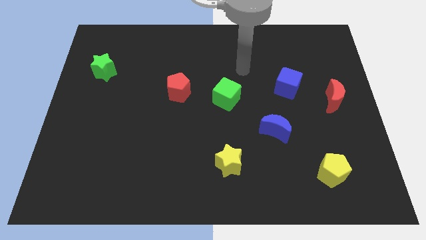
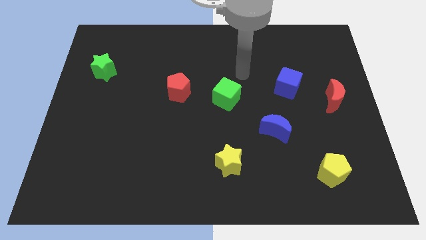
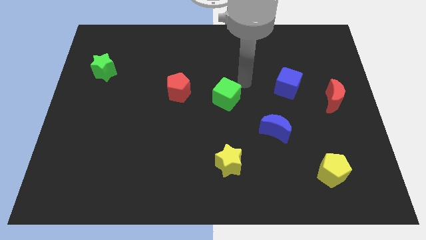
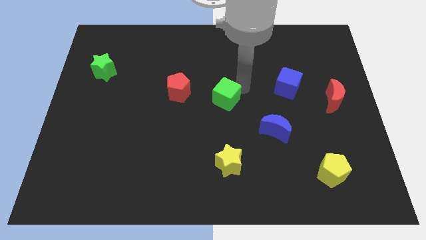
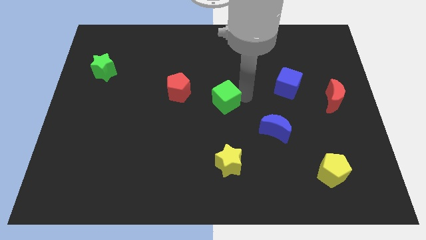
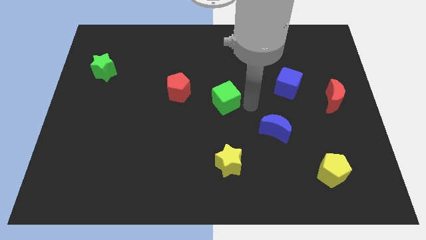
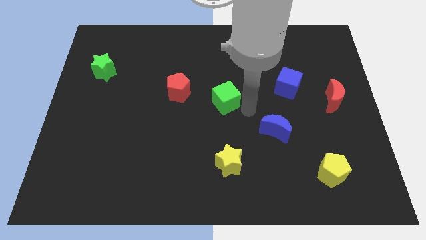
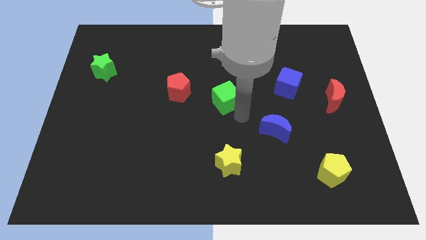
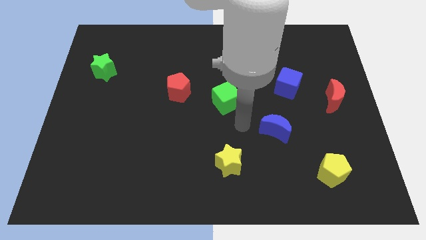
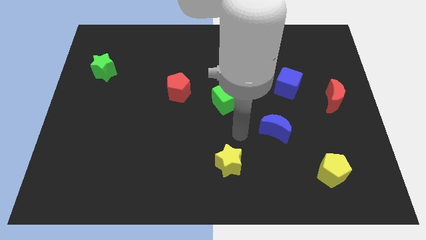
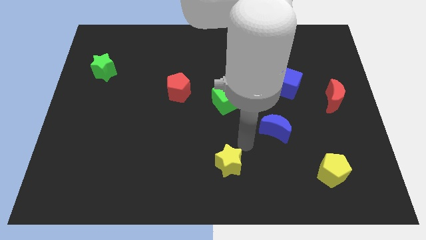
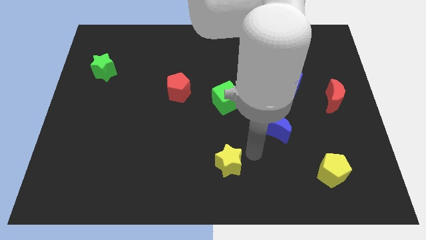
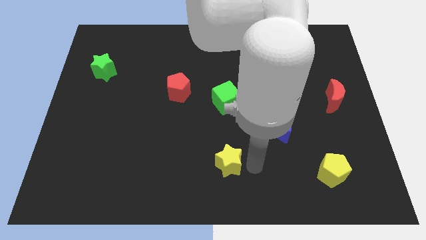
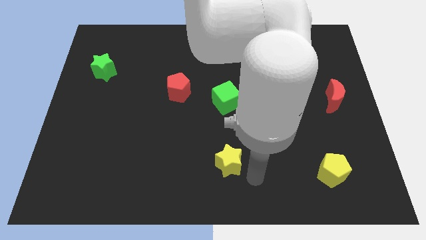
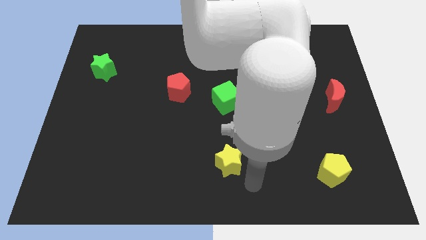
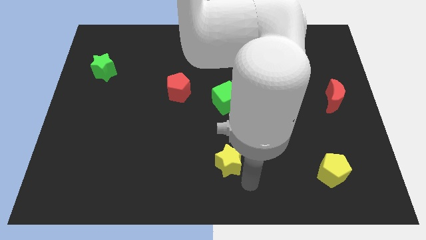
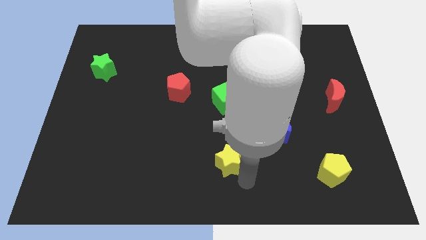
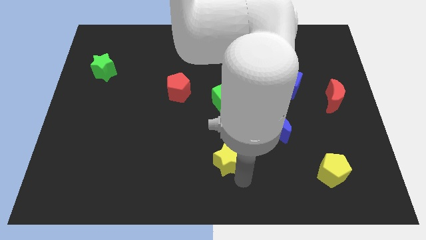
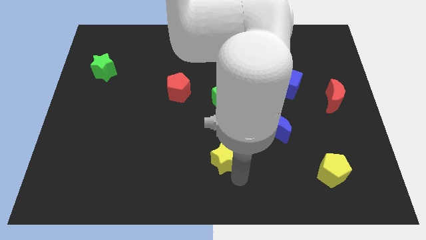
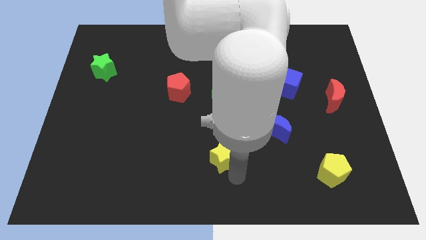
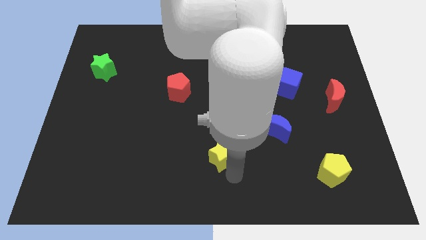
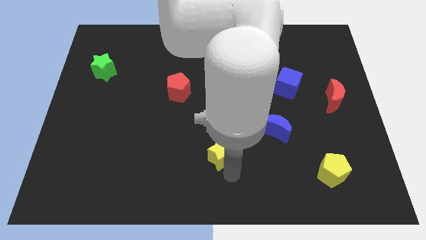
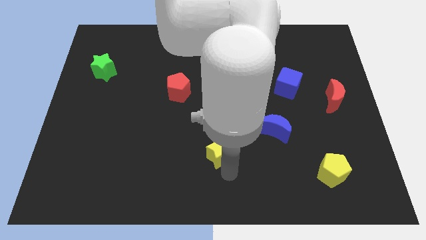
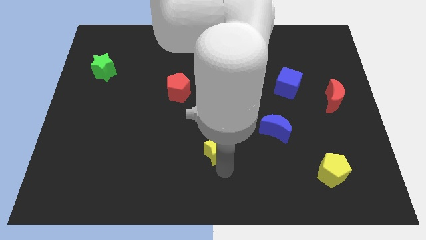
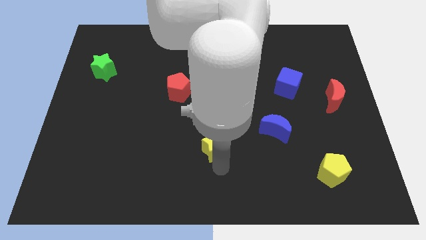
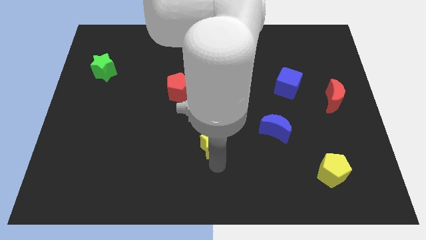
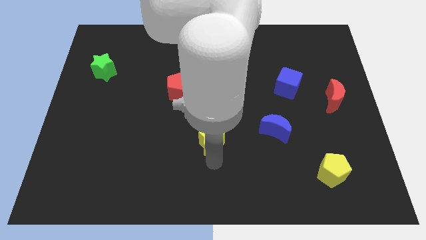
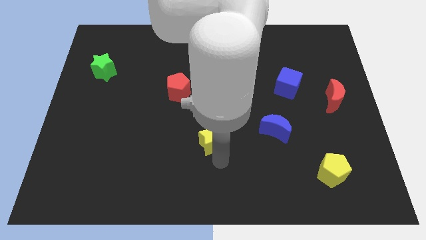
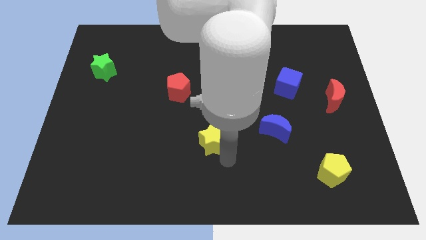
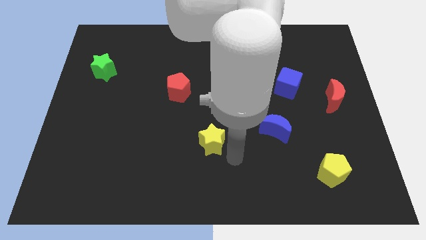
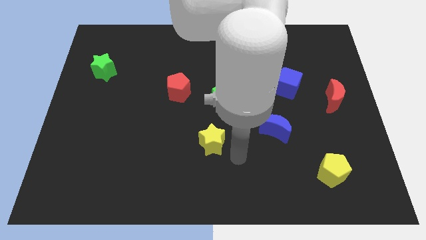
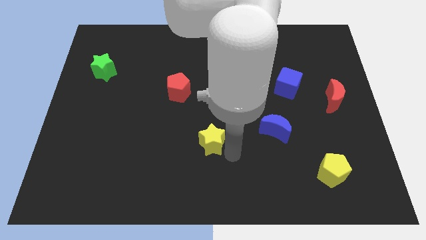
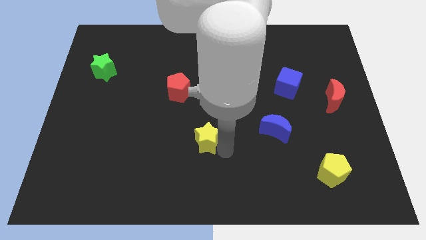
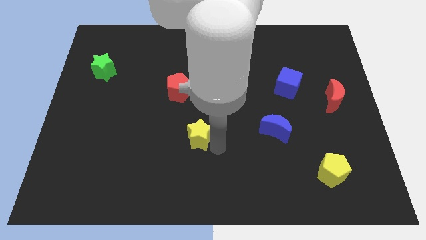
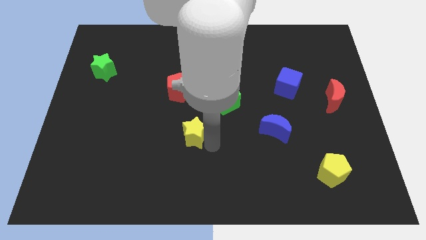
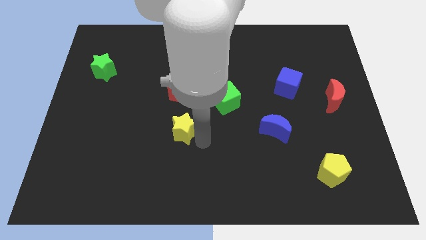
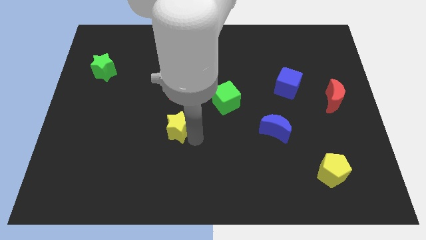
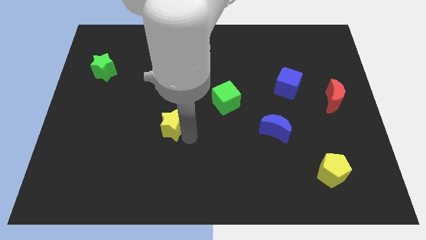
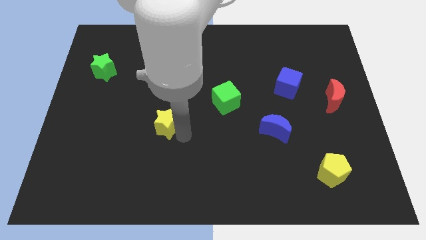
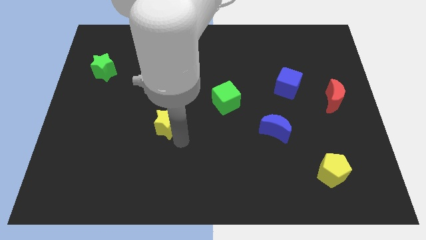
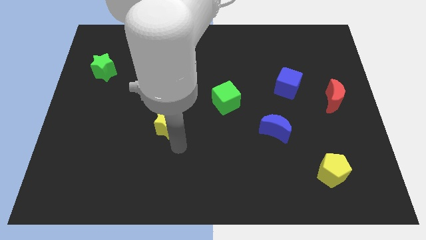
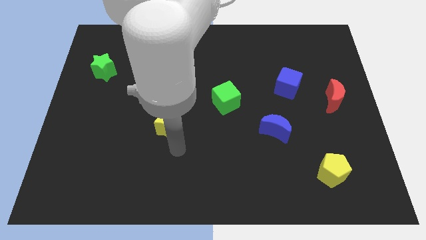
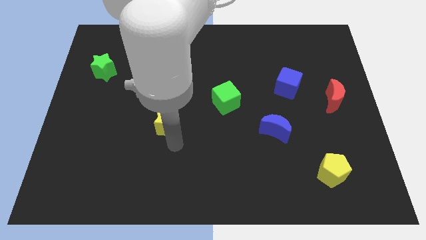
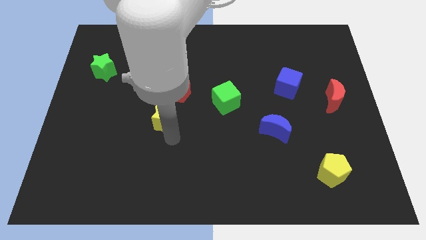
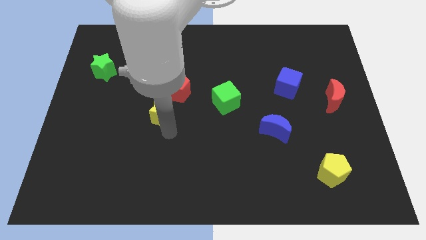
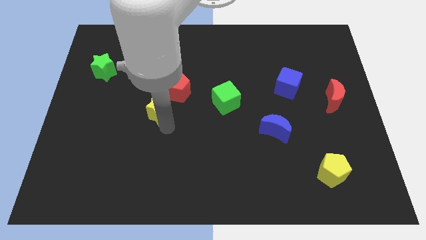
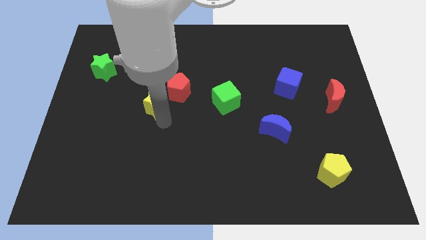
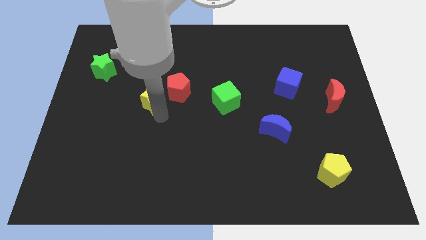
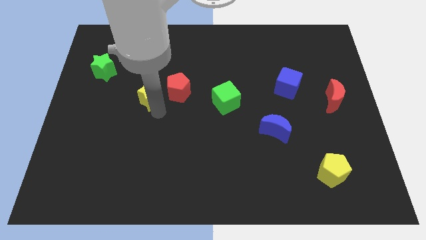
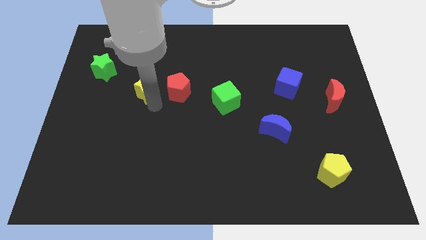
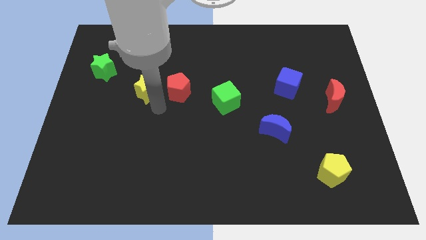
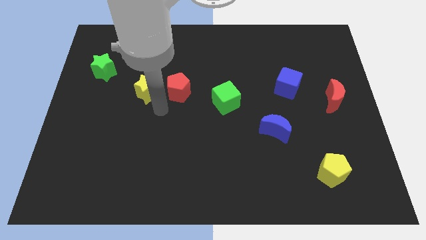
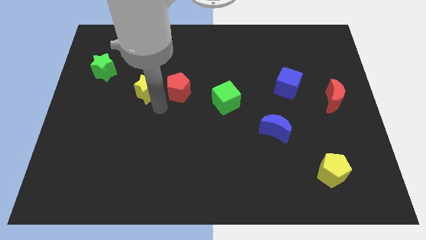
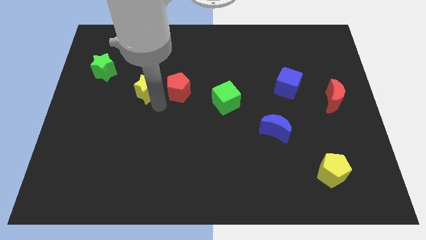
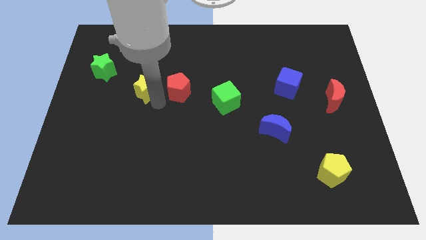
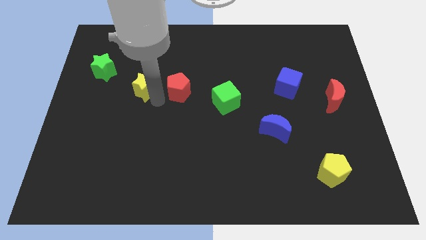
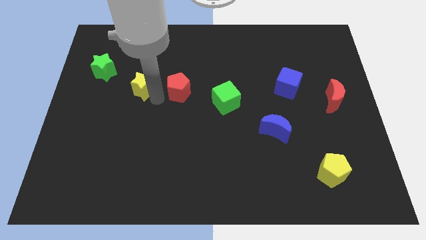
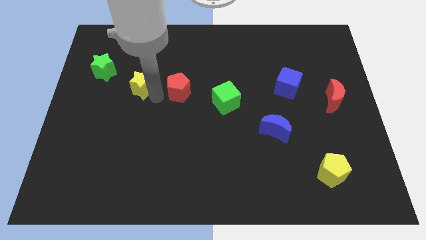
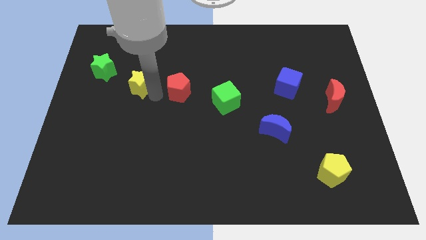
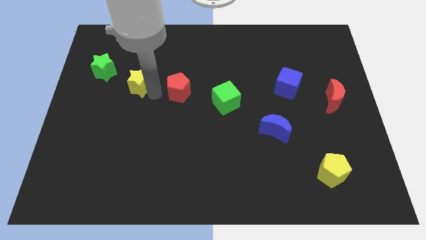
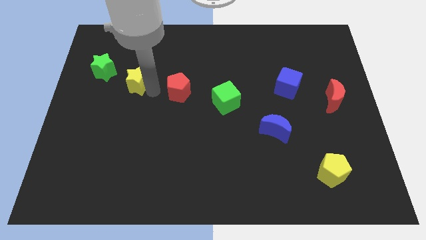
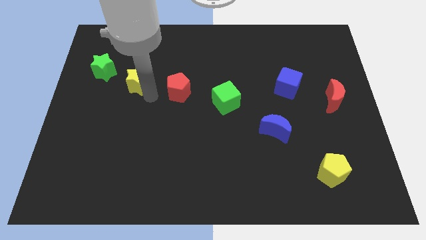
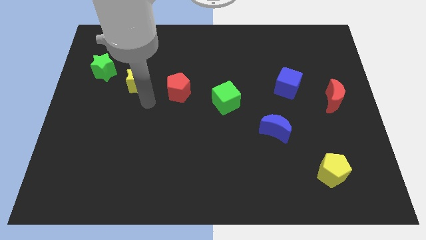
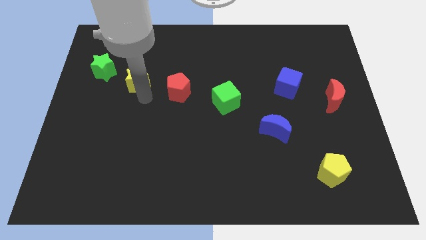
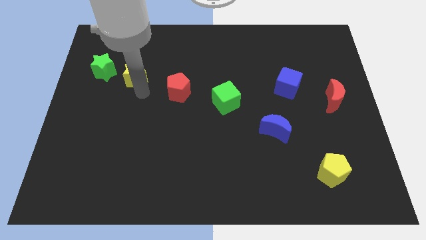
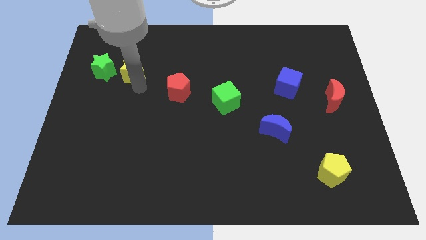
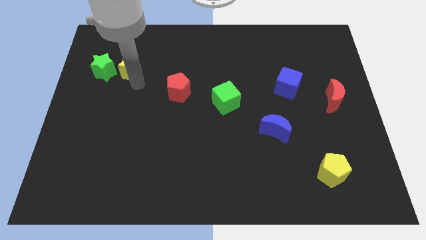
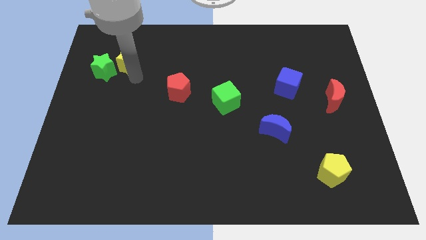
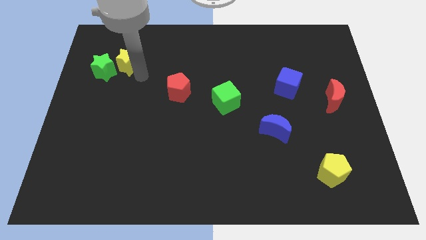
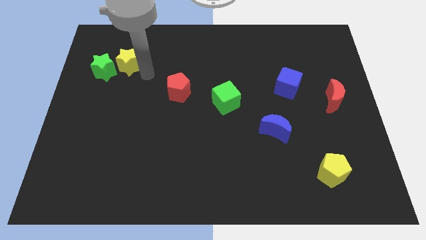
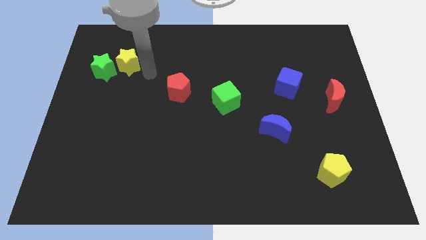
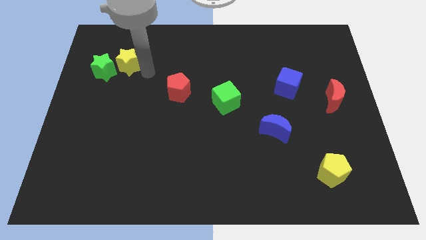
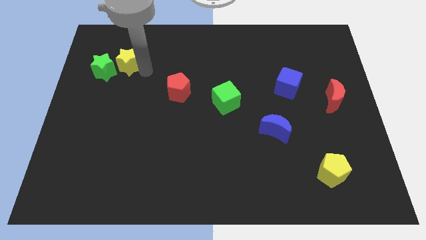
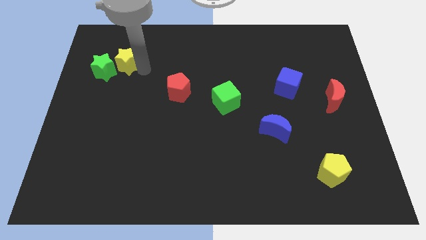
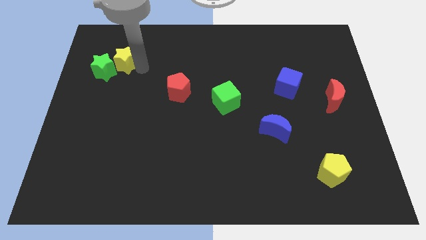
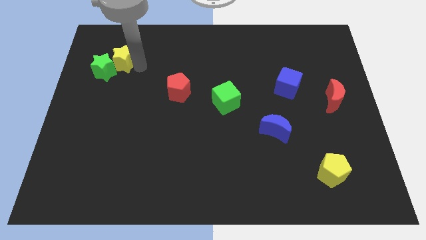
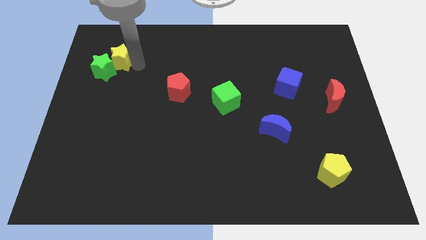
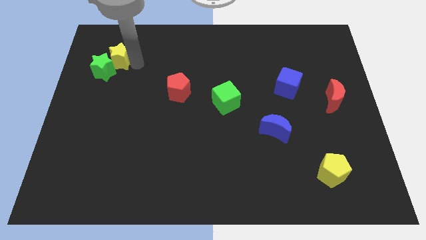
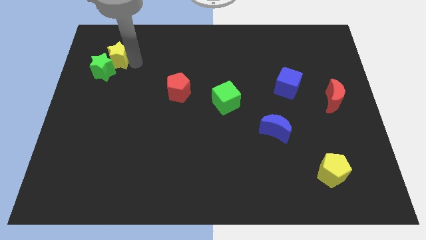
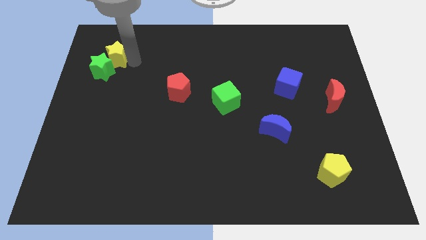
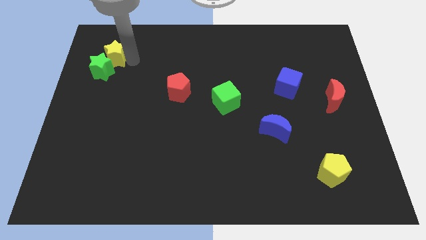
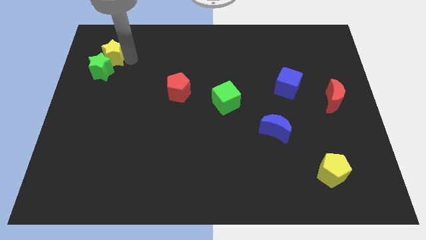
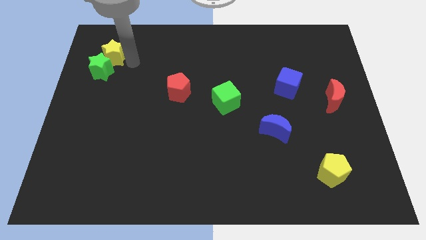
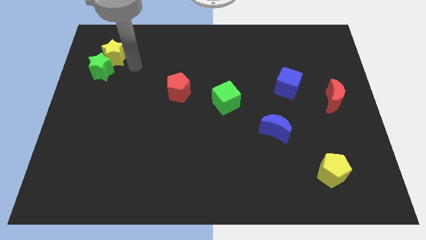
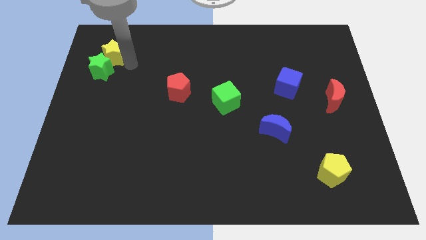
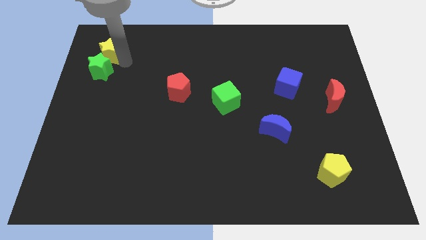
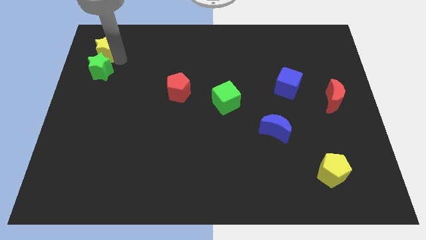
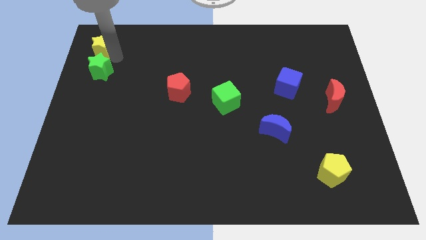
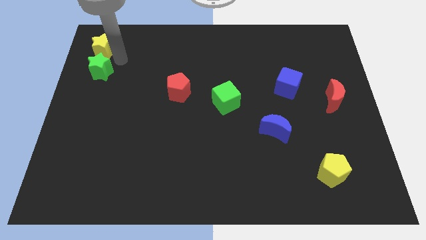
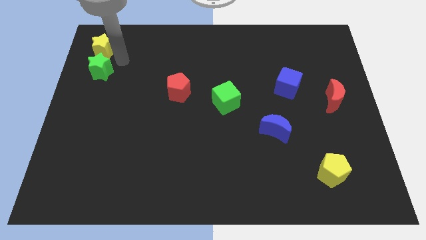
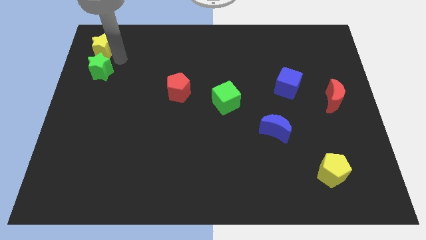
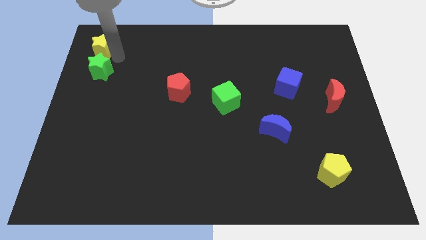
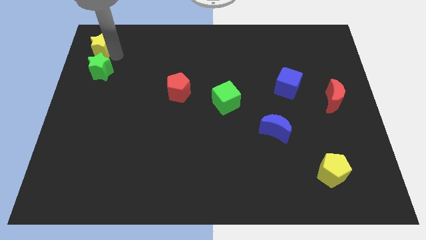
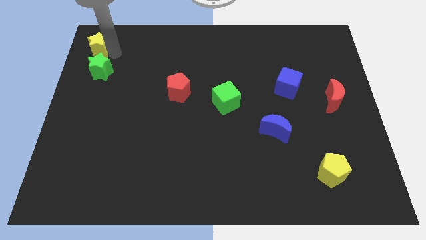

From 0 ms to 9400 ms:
put the yellow star to the upper left corner
